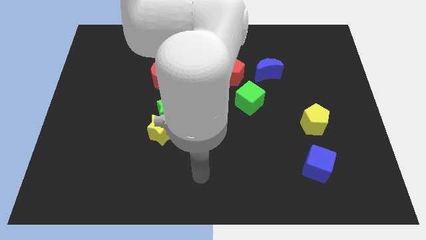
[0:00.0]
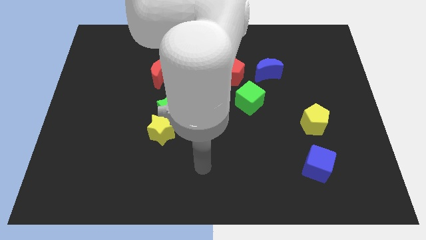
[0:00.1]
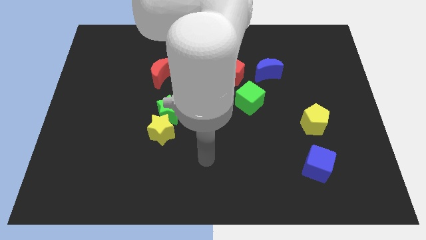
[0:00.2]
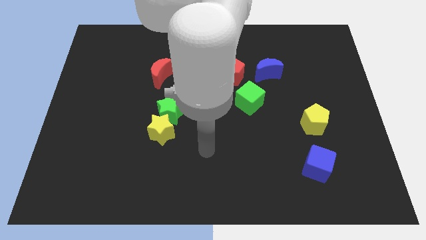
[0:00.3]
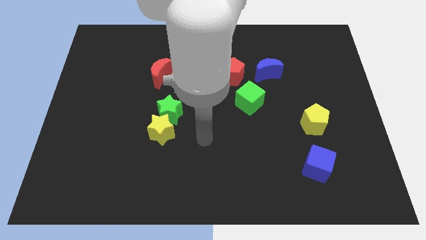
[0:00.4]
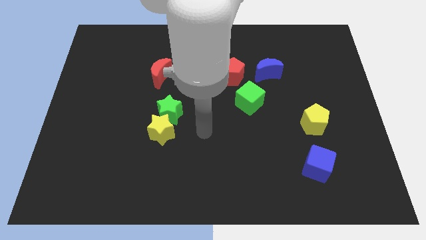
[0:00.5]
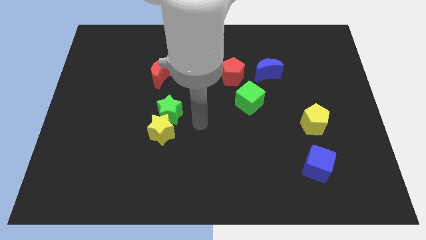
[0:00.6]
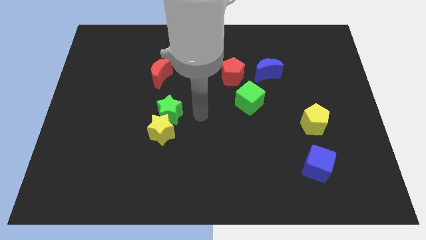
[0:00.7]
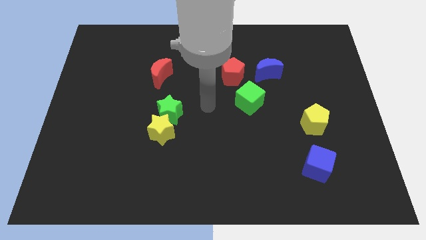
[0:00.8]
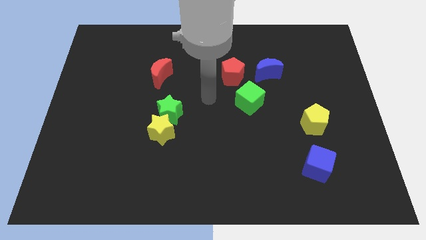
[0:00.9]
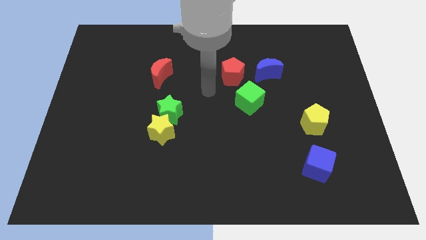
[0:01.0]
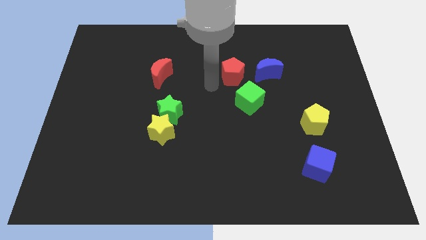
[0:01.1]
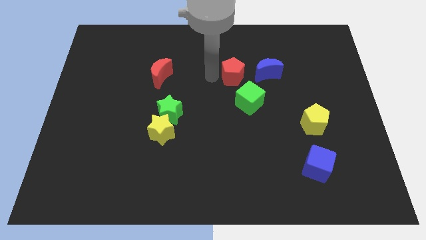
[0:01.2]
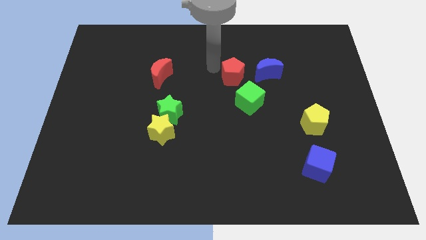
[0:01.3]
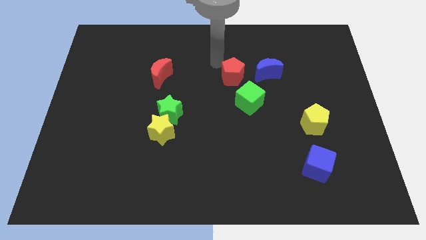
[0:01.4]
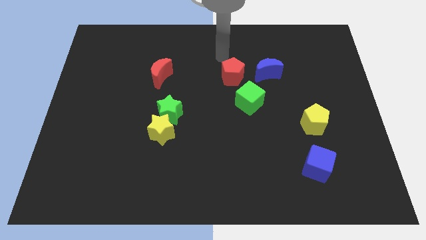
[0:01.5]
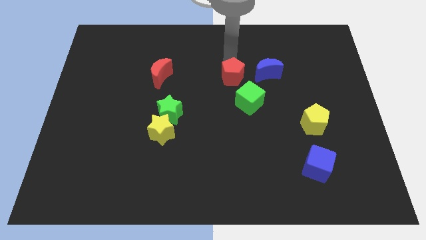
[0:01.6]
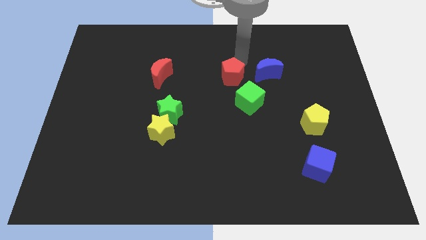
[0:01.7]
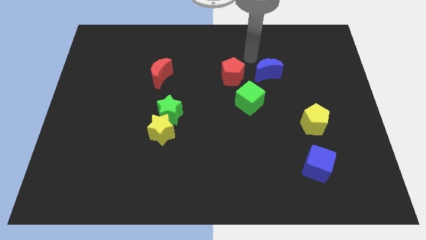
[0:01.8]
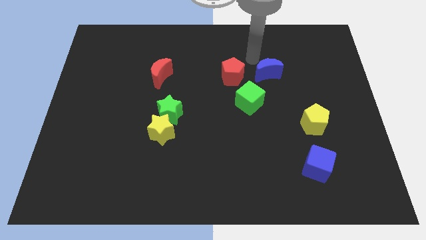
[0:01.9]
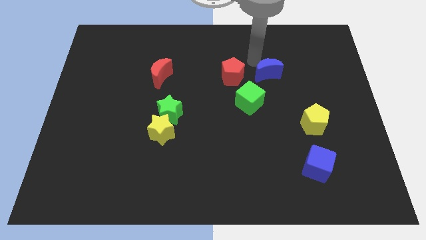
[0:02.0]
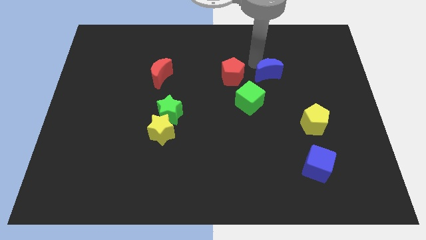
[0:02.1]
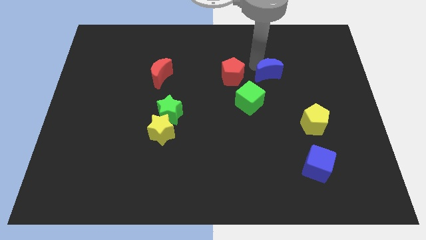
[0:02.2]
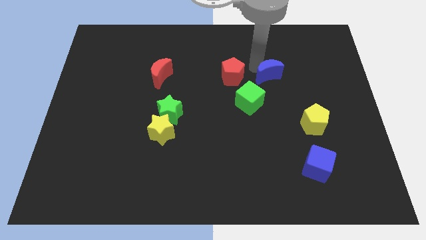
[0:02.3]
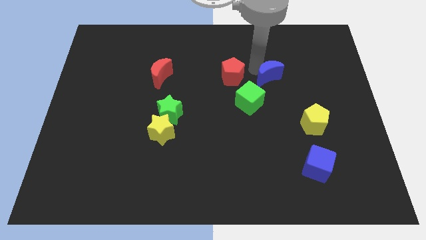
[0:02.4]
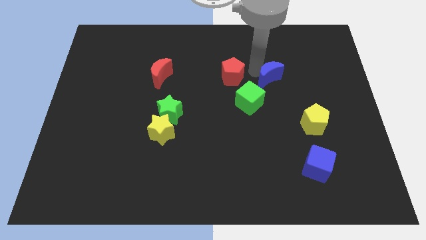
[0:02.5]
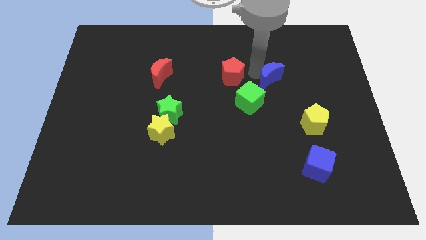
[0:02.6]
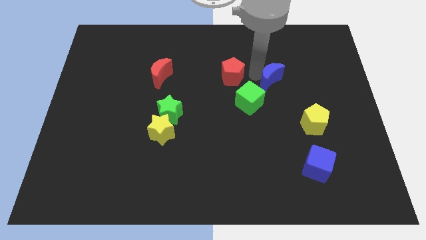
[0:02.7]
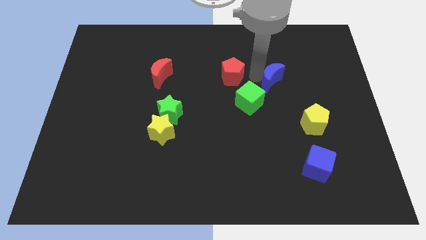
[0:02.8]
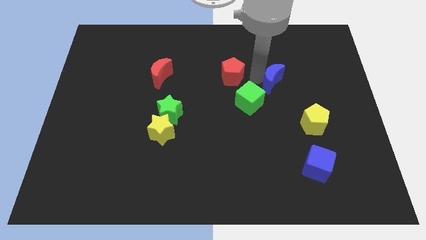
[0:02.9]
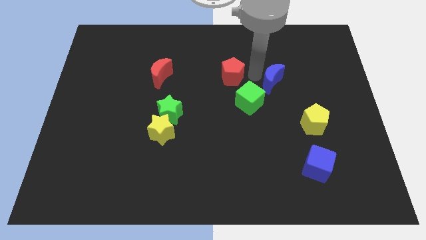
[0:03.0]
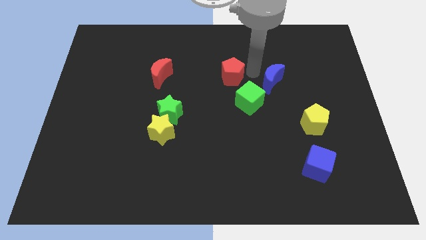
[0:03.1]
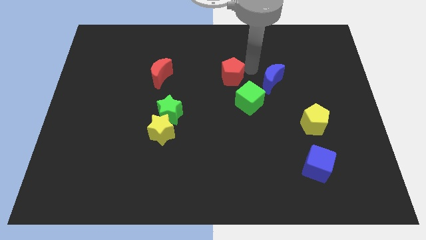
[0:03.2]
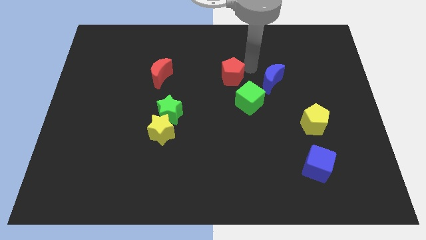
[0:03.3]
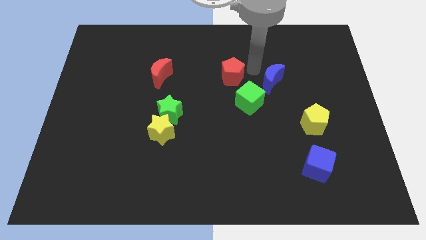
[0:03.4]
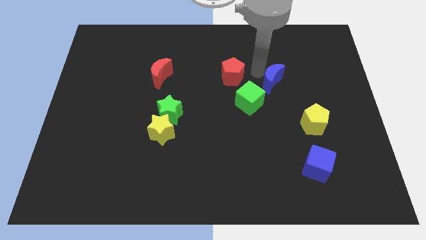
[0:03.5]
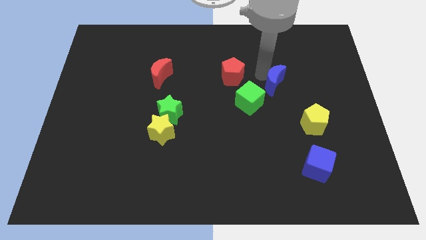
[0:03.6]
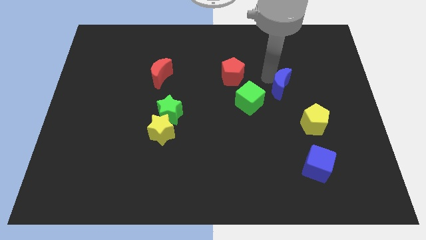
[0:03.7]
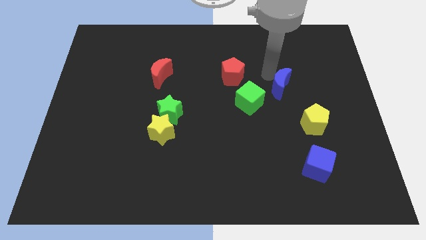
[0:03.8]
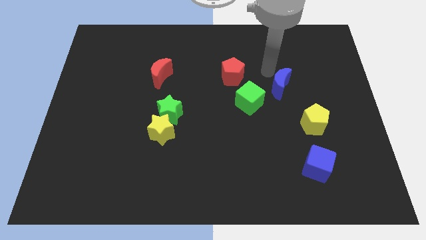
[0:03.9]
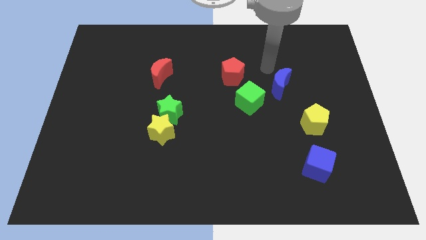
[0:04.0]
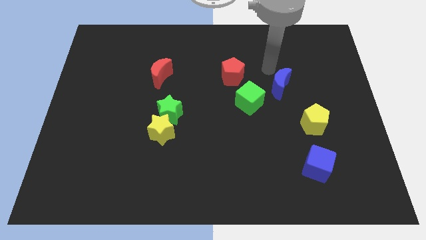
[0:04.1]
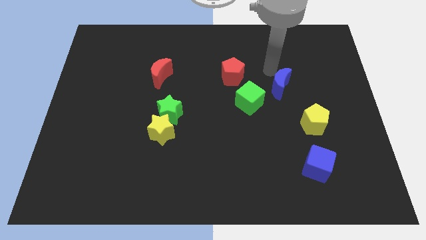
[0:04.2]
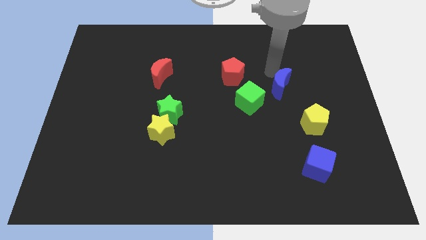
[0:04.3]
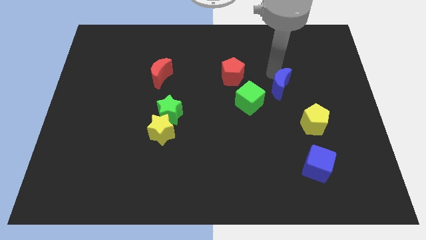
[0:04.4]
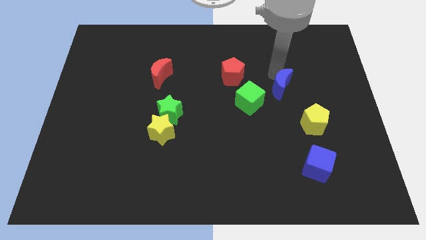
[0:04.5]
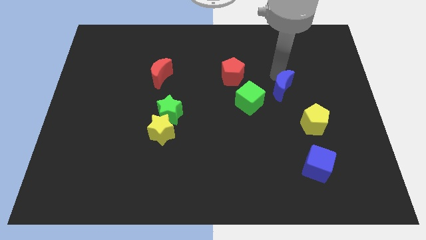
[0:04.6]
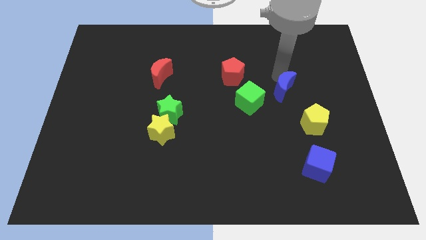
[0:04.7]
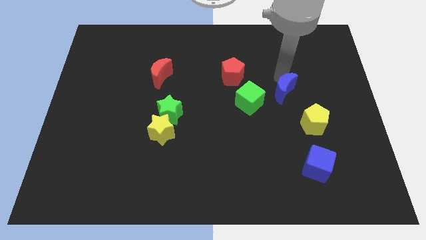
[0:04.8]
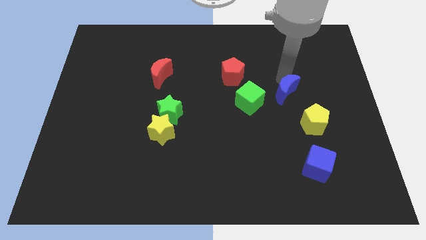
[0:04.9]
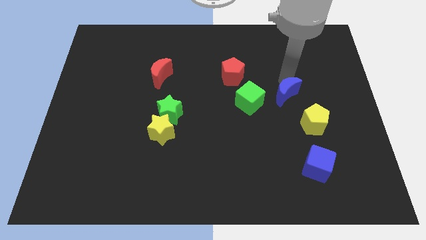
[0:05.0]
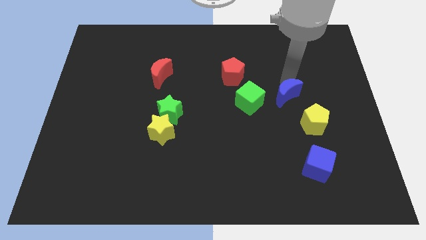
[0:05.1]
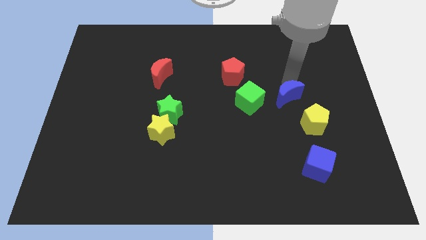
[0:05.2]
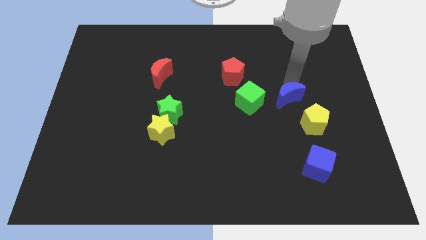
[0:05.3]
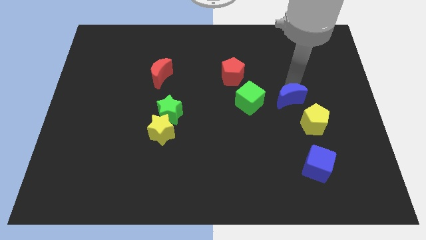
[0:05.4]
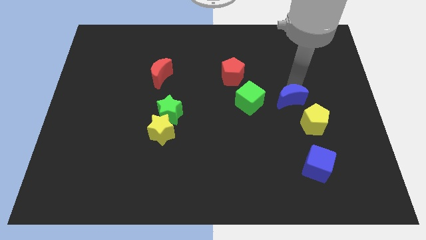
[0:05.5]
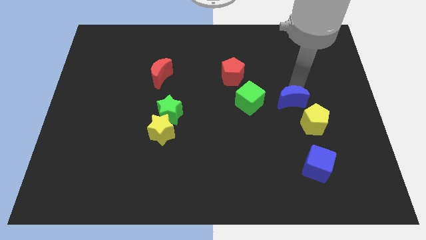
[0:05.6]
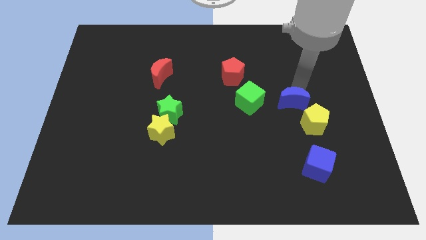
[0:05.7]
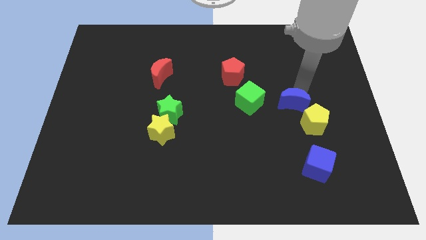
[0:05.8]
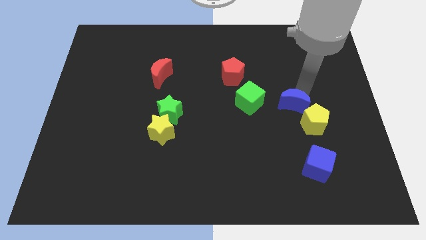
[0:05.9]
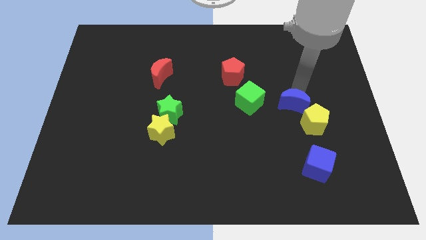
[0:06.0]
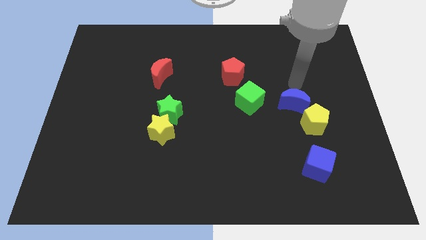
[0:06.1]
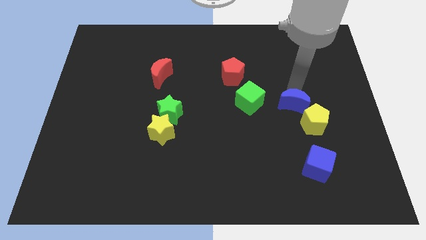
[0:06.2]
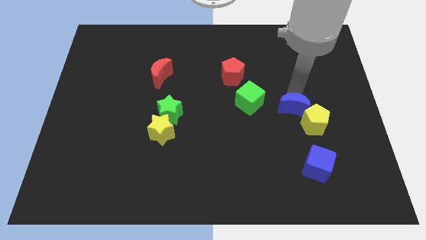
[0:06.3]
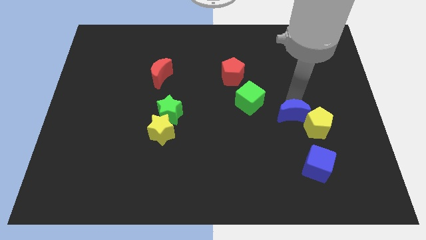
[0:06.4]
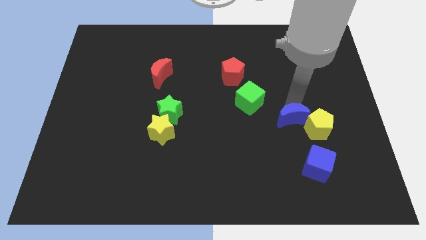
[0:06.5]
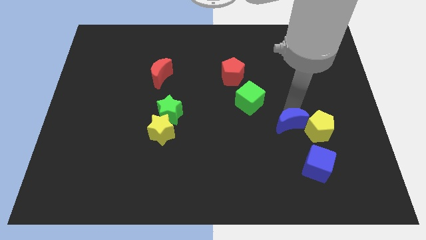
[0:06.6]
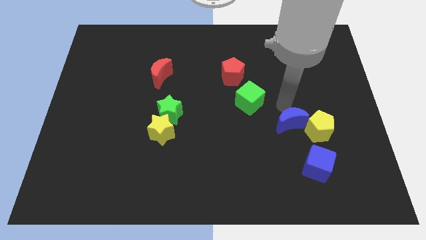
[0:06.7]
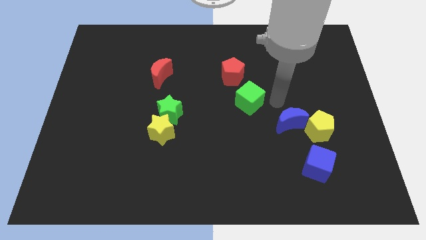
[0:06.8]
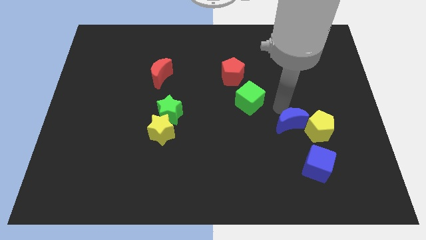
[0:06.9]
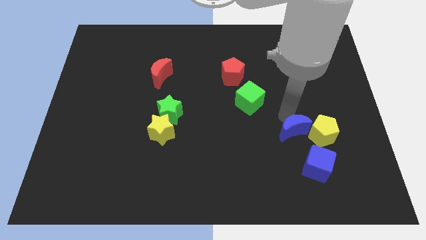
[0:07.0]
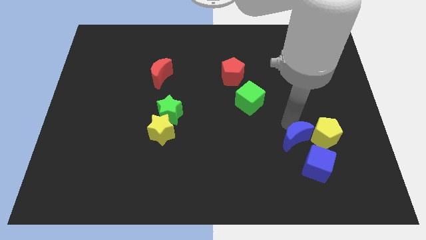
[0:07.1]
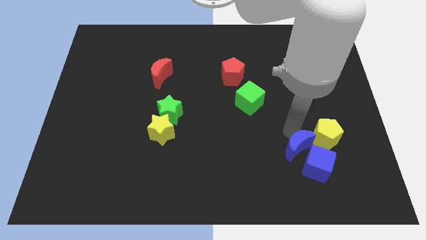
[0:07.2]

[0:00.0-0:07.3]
push the blue moon towards the blue cube
